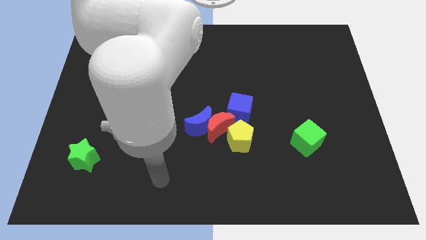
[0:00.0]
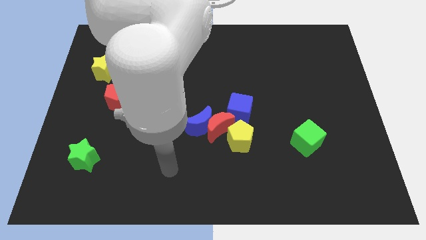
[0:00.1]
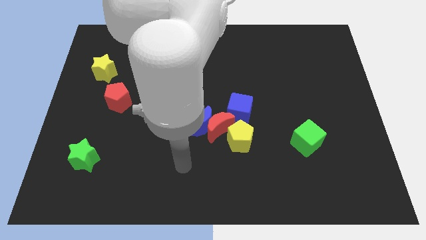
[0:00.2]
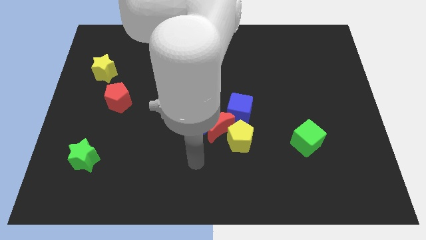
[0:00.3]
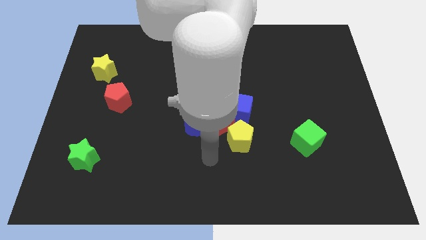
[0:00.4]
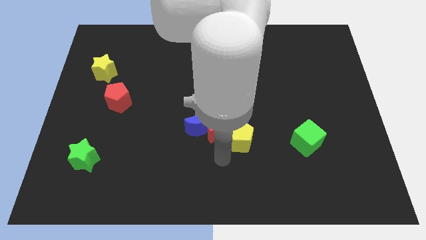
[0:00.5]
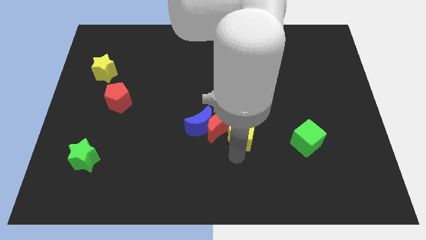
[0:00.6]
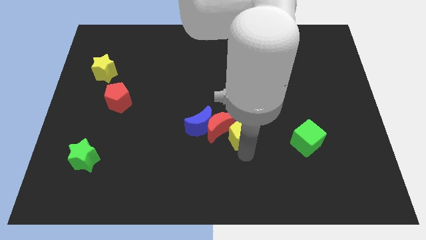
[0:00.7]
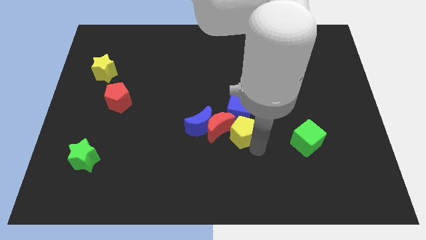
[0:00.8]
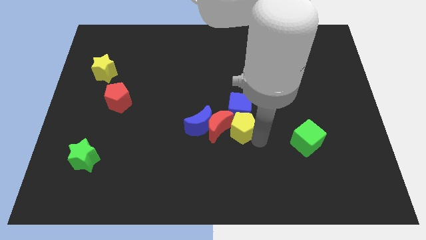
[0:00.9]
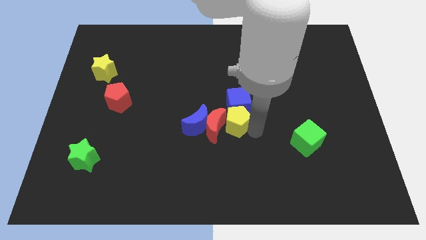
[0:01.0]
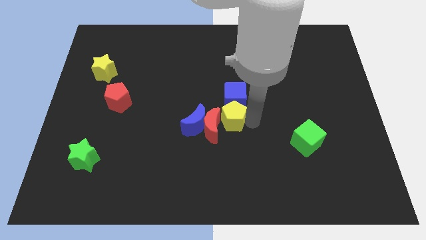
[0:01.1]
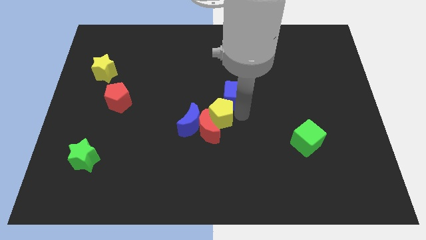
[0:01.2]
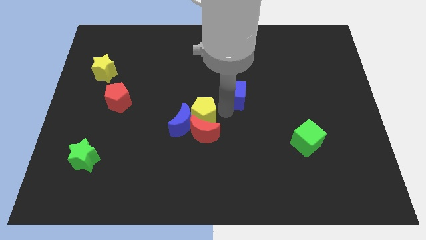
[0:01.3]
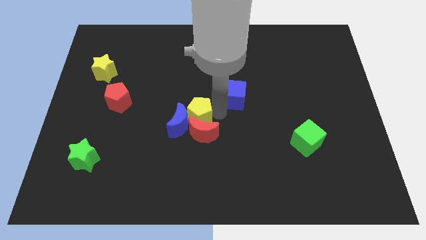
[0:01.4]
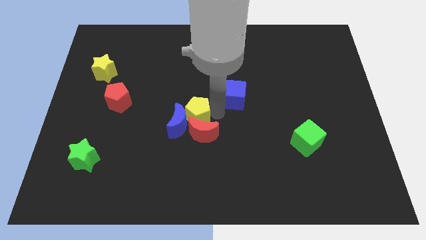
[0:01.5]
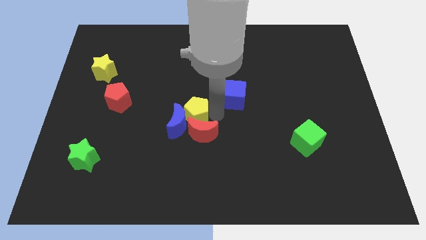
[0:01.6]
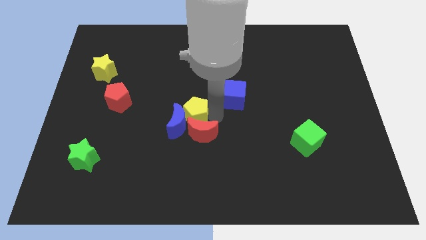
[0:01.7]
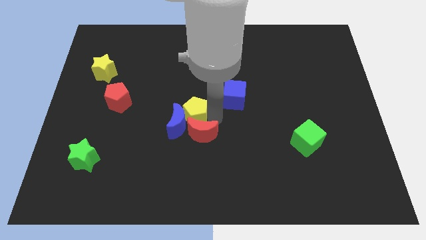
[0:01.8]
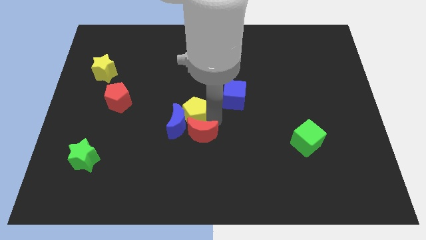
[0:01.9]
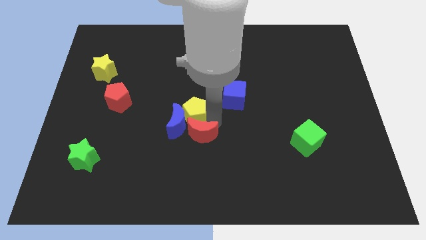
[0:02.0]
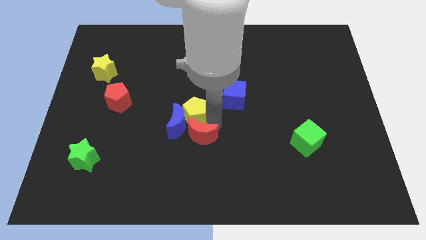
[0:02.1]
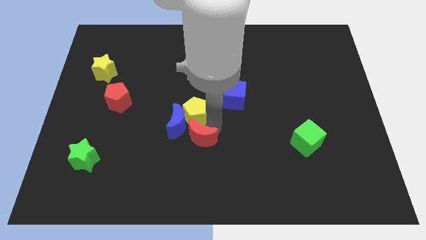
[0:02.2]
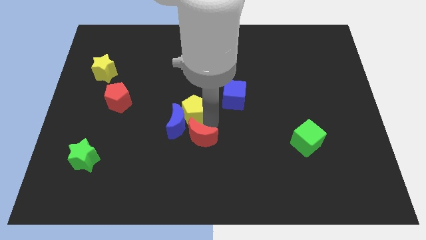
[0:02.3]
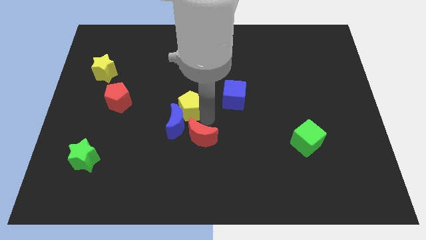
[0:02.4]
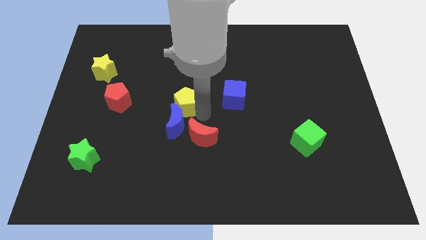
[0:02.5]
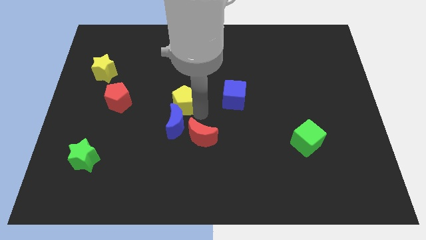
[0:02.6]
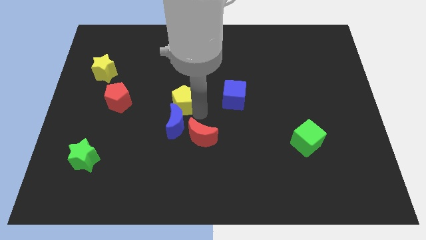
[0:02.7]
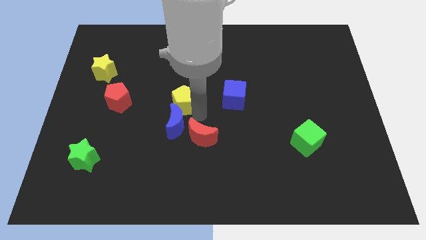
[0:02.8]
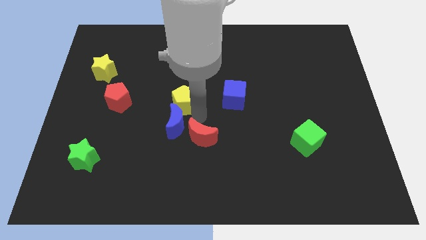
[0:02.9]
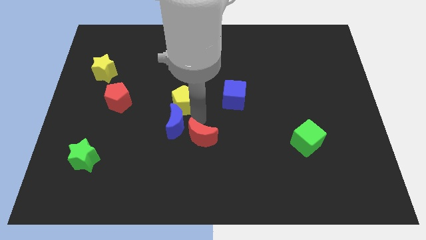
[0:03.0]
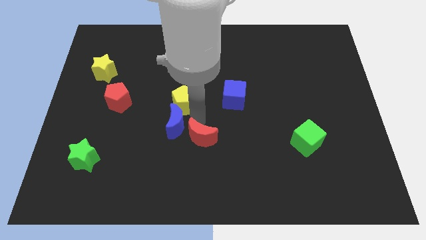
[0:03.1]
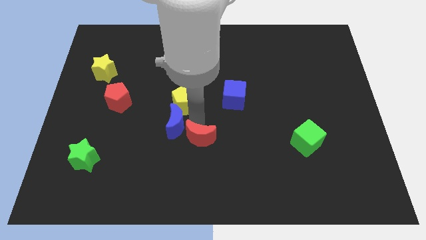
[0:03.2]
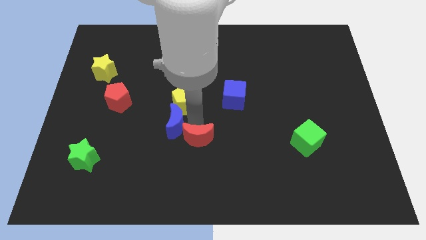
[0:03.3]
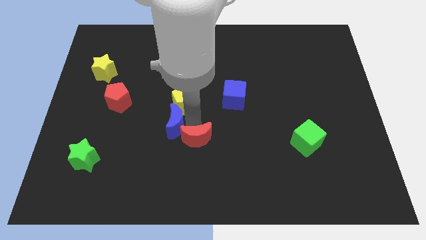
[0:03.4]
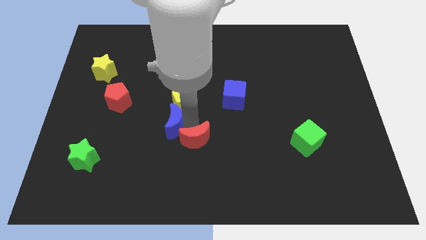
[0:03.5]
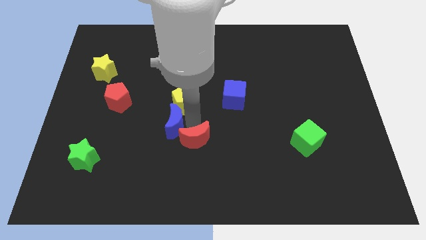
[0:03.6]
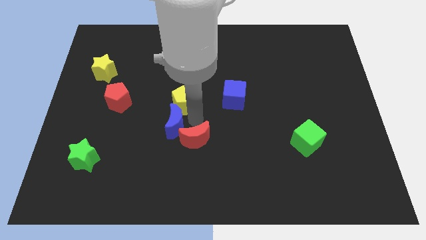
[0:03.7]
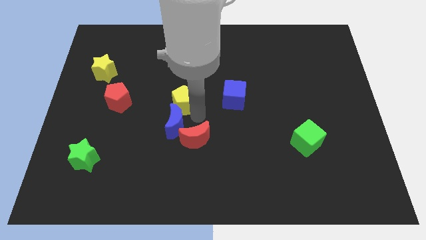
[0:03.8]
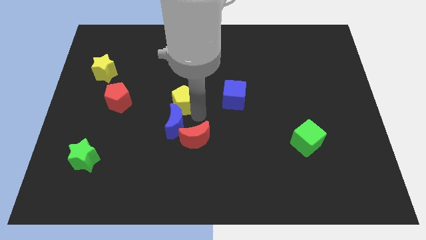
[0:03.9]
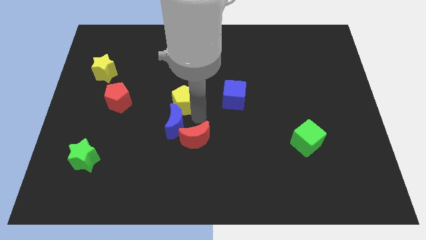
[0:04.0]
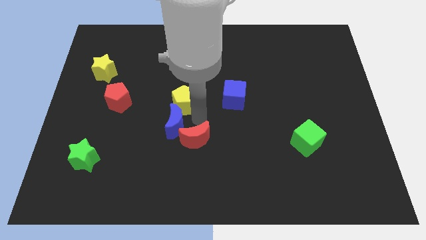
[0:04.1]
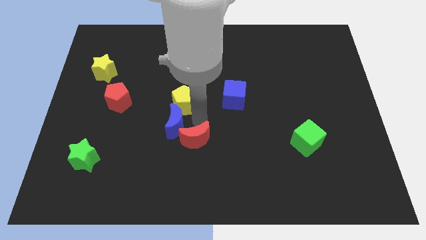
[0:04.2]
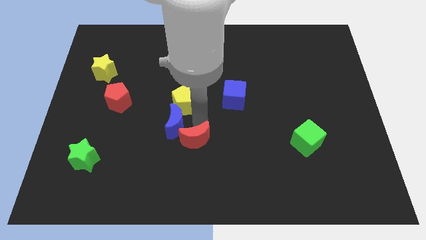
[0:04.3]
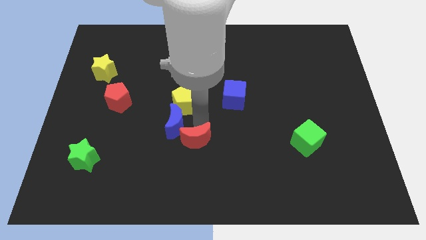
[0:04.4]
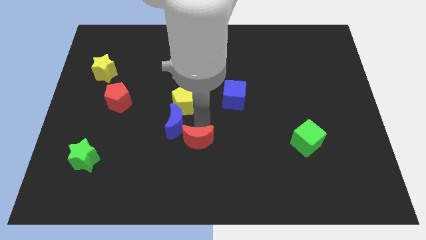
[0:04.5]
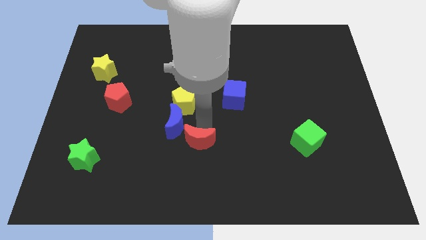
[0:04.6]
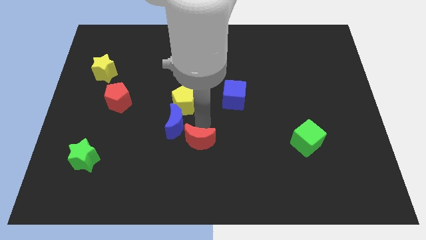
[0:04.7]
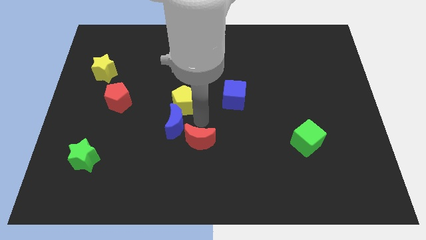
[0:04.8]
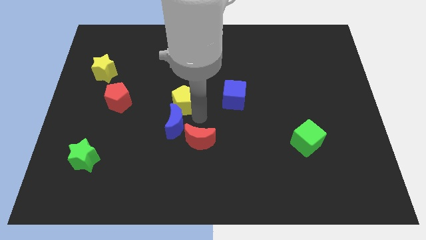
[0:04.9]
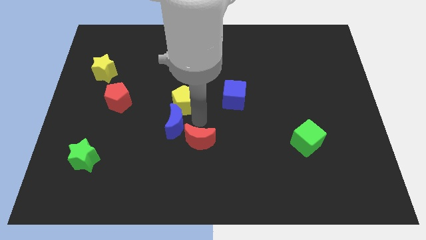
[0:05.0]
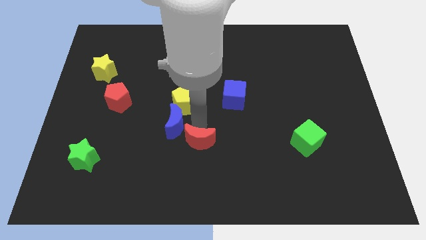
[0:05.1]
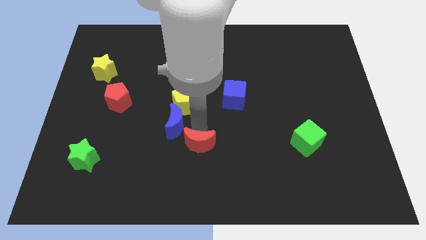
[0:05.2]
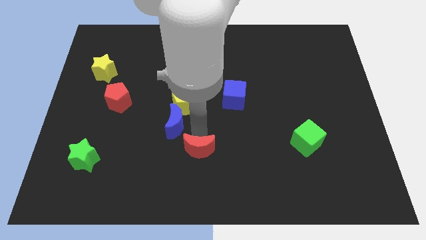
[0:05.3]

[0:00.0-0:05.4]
move the red moon away from the blue moon, yellow pentagon, and blue cube

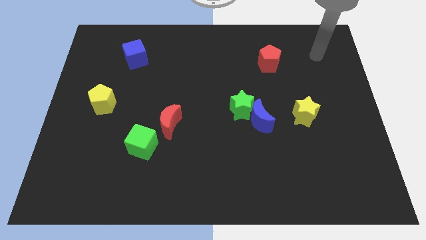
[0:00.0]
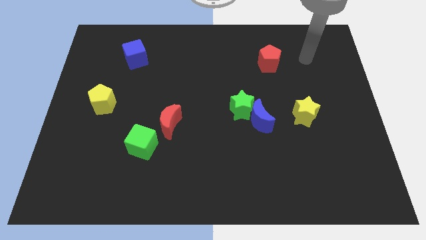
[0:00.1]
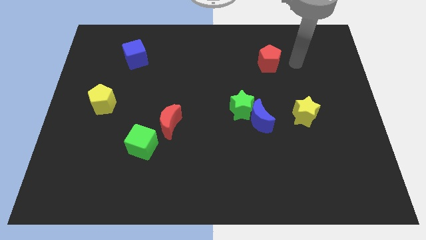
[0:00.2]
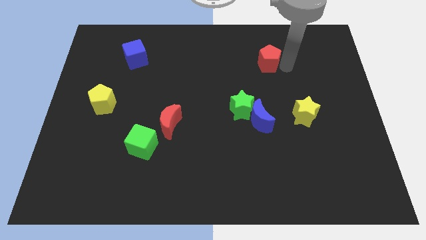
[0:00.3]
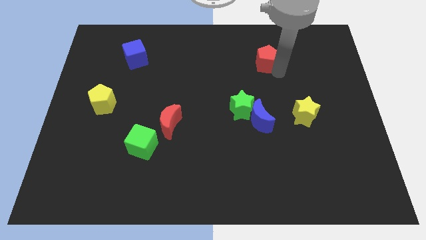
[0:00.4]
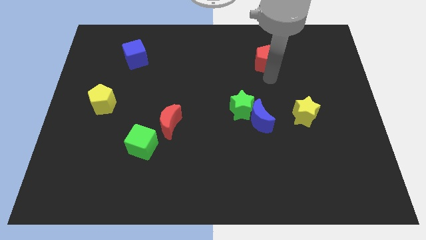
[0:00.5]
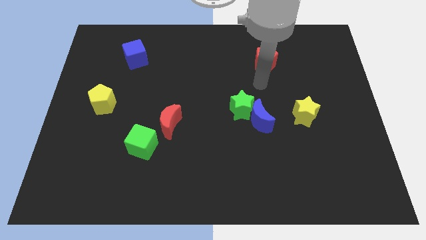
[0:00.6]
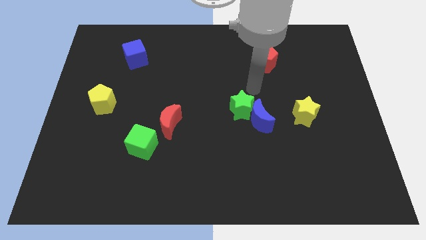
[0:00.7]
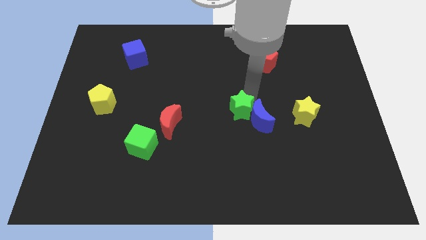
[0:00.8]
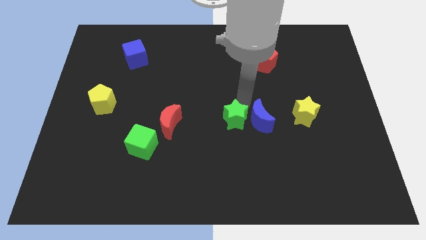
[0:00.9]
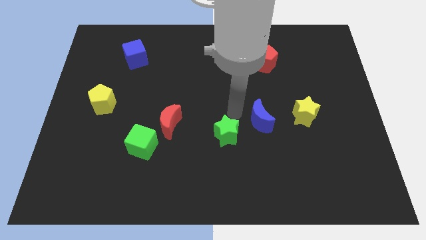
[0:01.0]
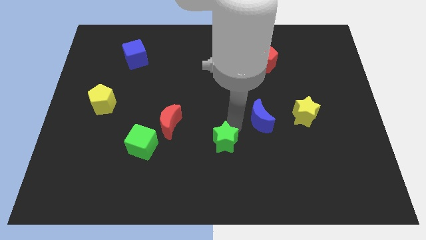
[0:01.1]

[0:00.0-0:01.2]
move the blue moon away from the green star

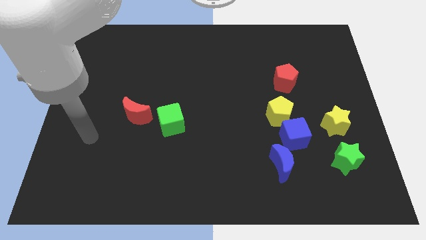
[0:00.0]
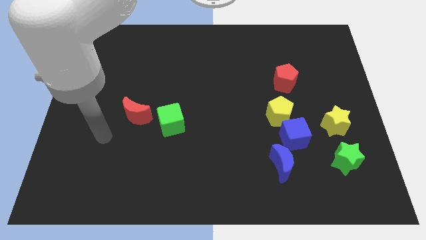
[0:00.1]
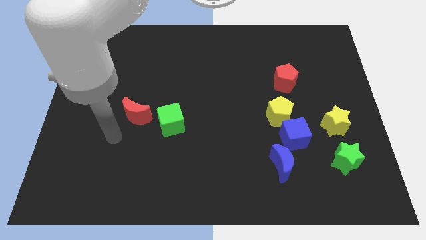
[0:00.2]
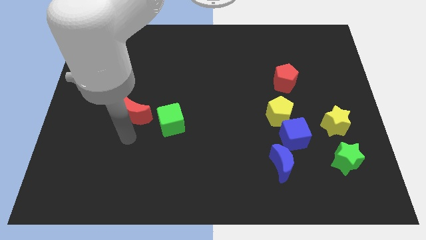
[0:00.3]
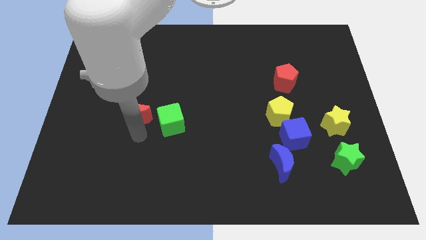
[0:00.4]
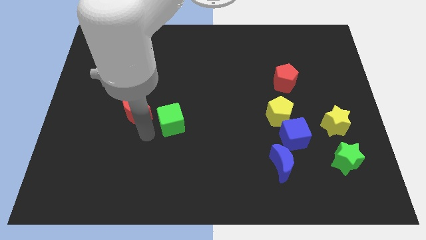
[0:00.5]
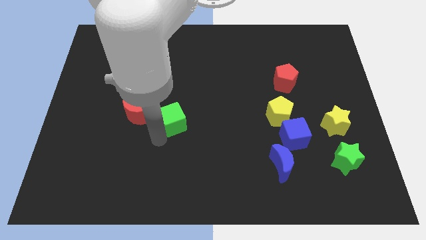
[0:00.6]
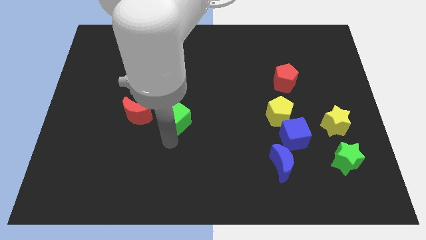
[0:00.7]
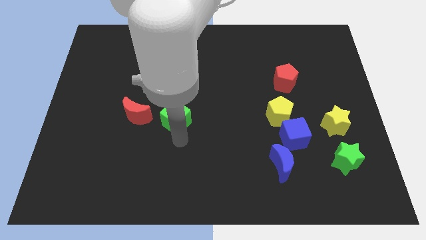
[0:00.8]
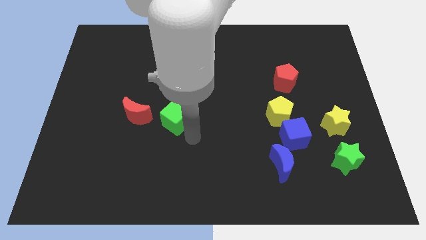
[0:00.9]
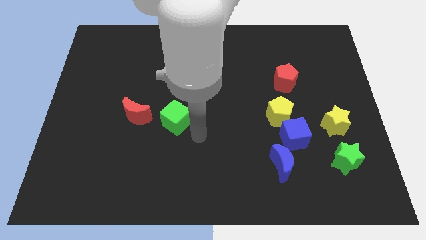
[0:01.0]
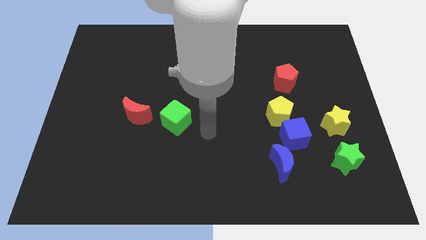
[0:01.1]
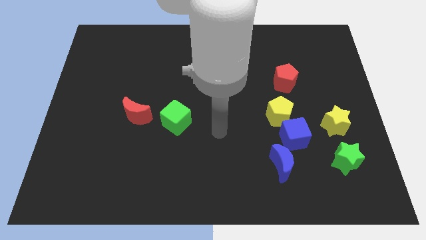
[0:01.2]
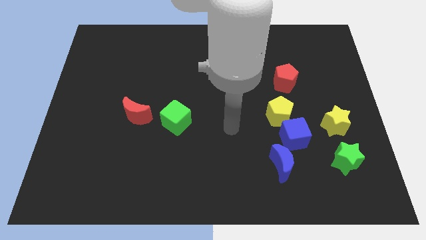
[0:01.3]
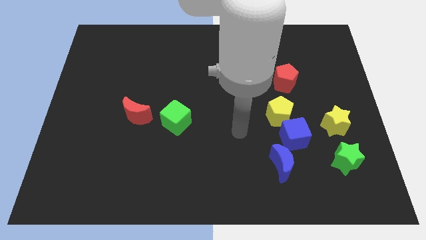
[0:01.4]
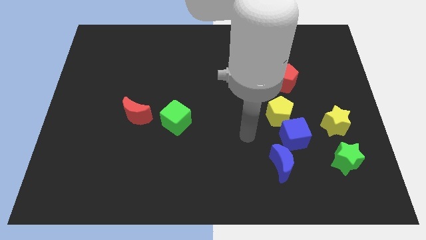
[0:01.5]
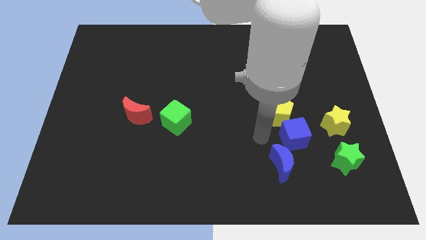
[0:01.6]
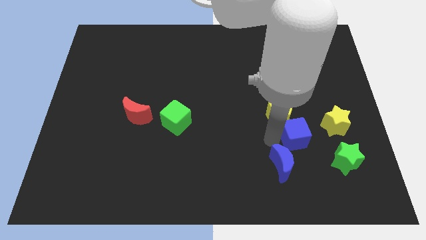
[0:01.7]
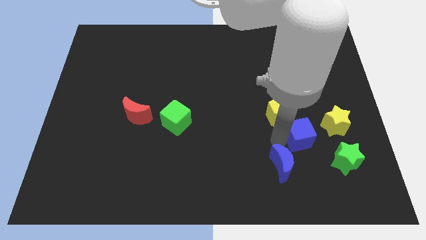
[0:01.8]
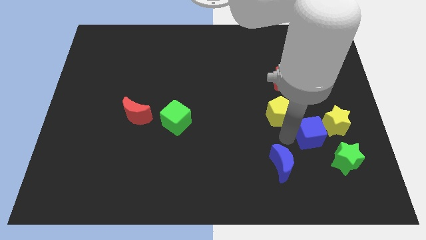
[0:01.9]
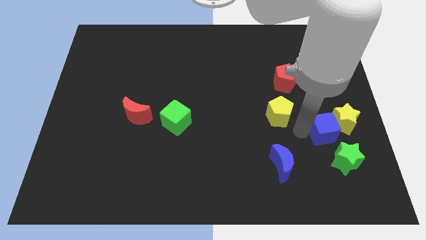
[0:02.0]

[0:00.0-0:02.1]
move the yellow pentagon away from the blue cube

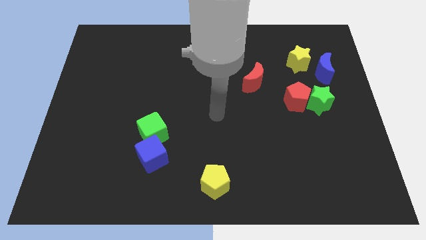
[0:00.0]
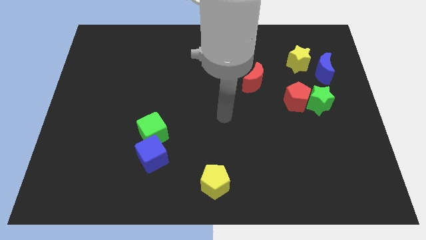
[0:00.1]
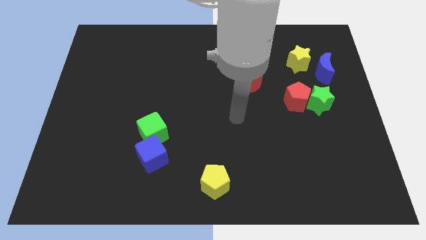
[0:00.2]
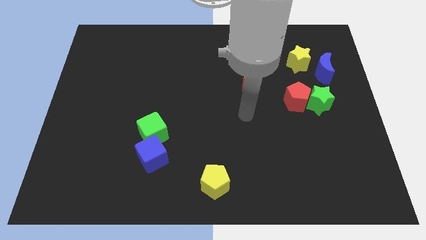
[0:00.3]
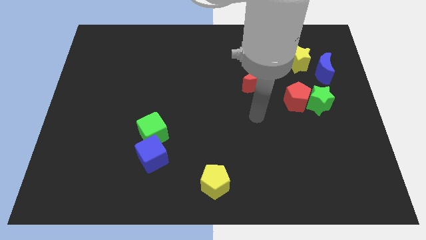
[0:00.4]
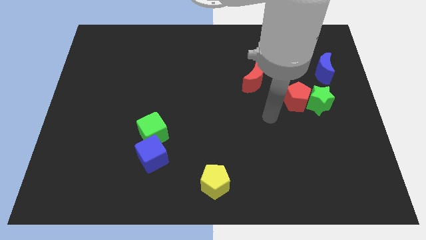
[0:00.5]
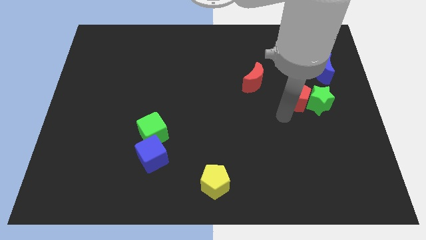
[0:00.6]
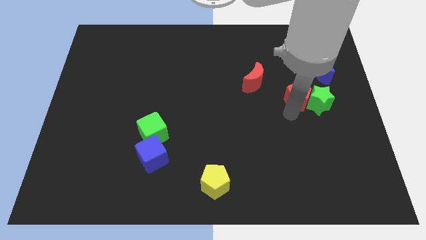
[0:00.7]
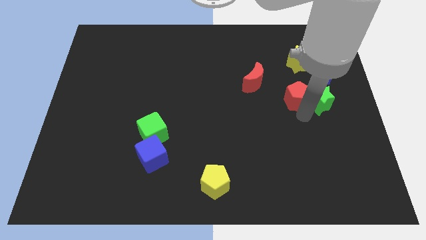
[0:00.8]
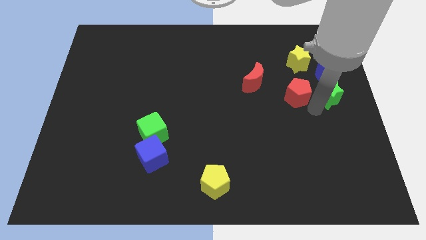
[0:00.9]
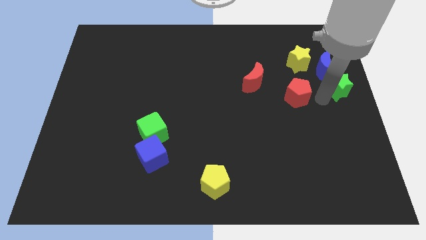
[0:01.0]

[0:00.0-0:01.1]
separate the red pentagon from the green star
